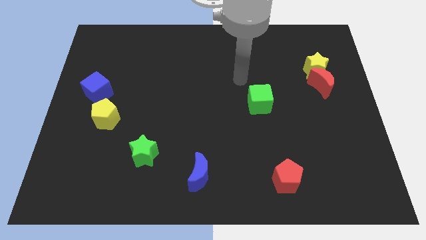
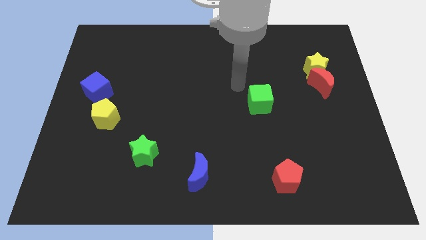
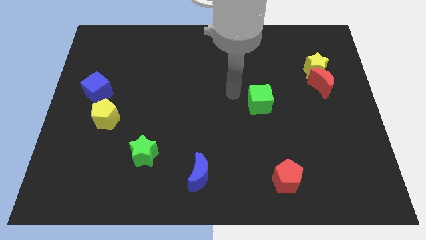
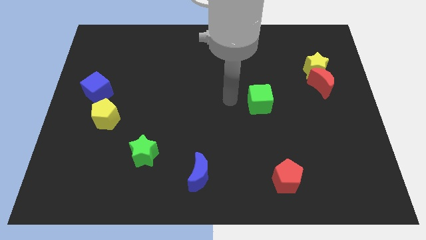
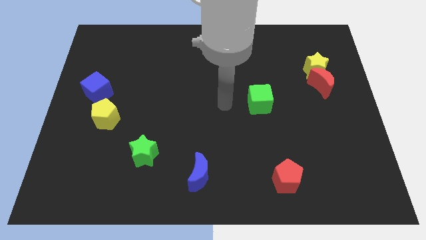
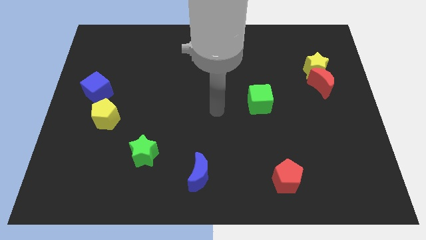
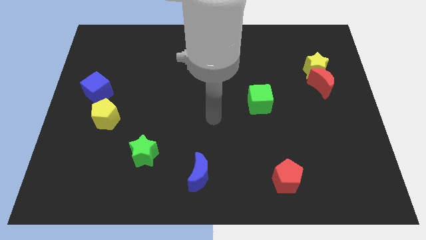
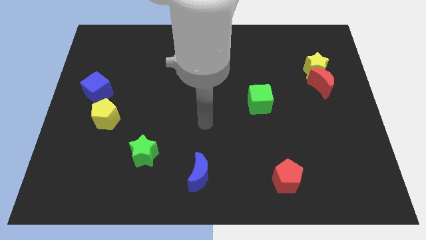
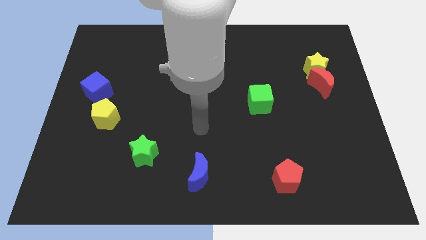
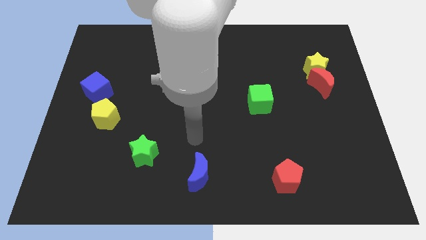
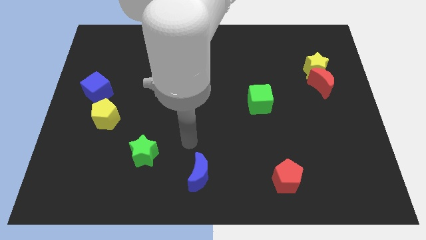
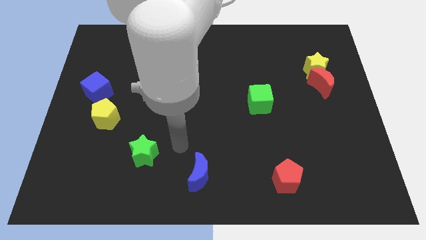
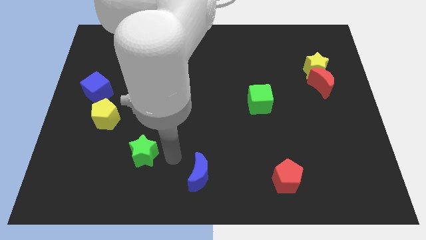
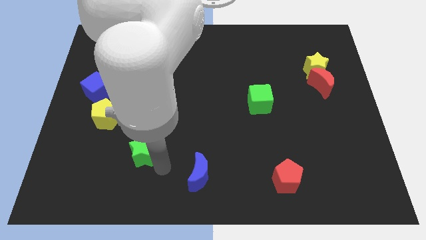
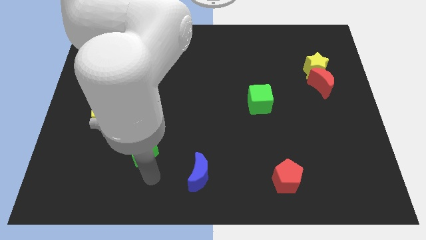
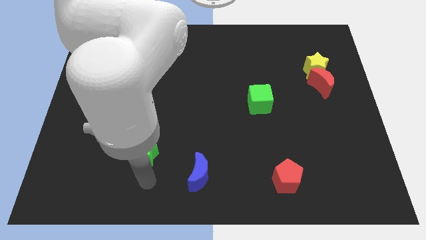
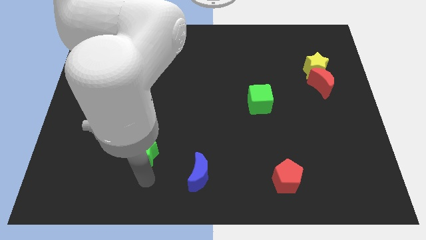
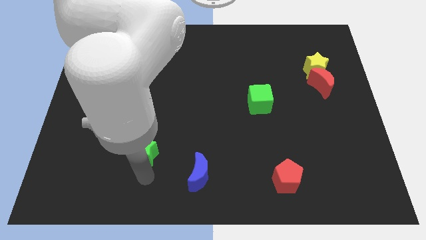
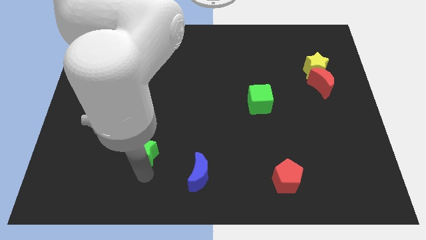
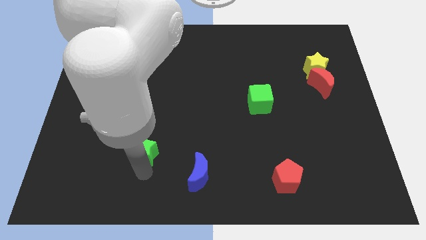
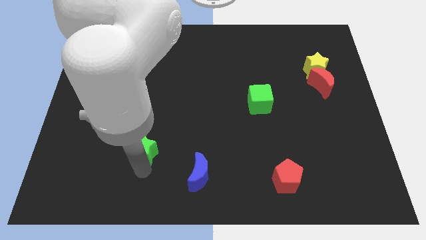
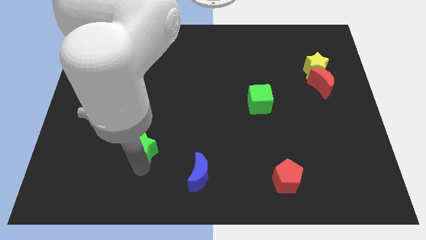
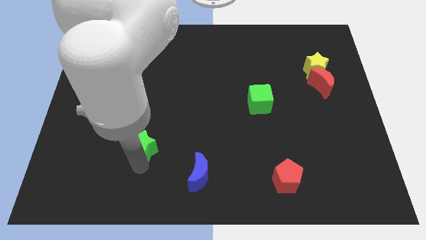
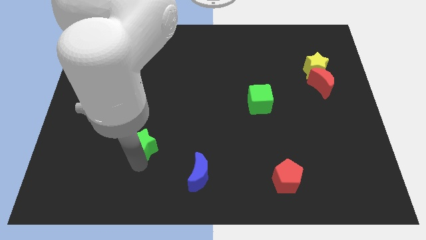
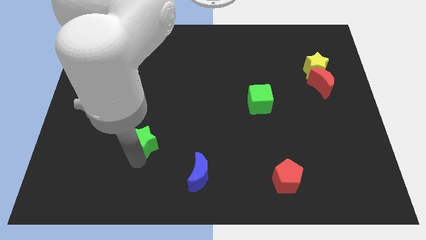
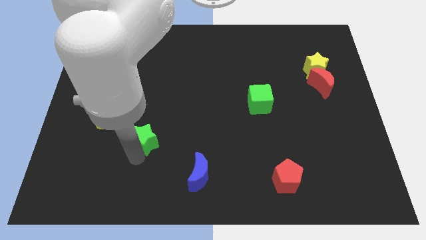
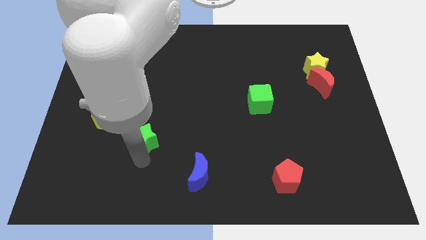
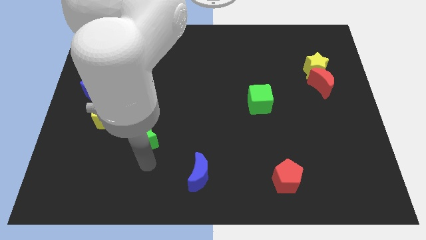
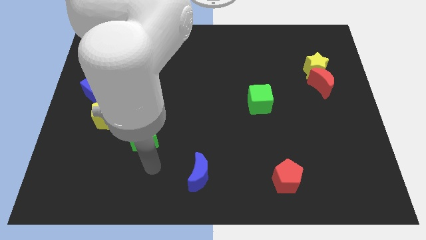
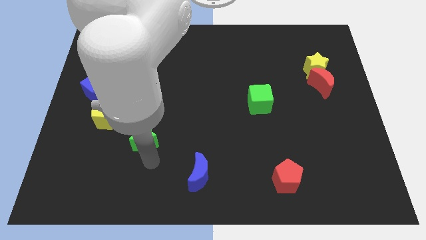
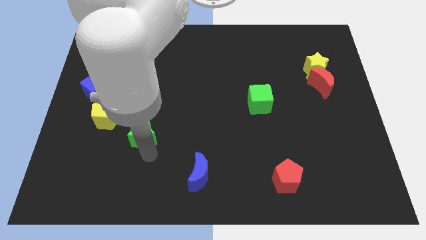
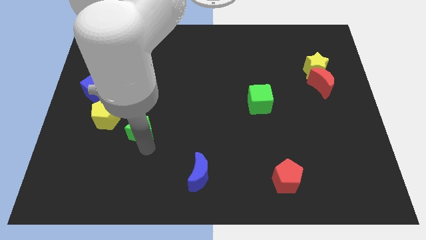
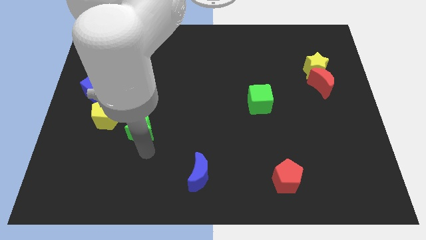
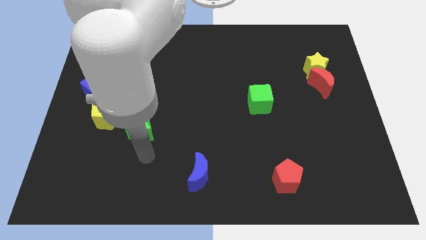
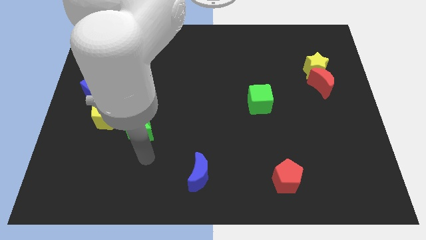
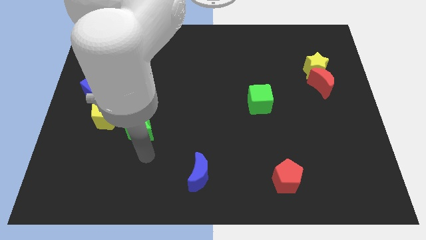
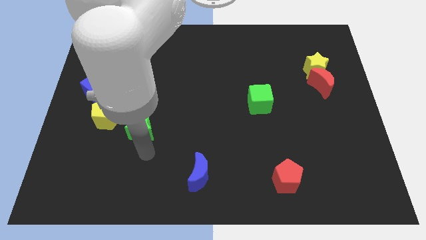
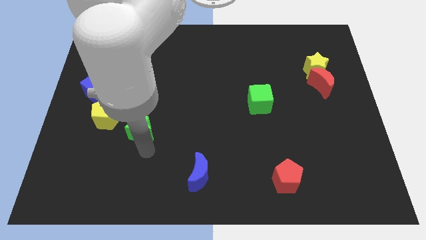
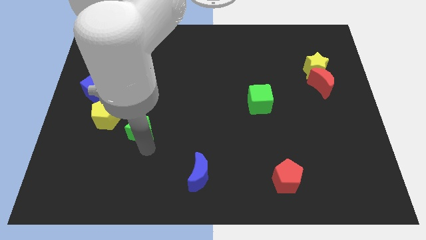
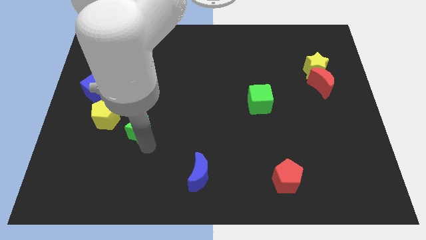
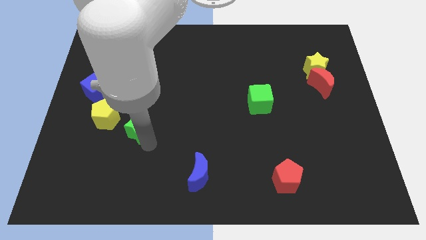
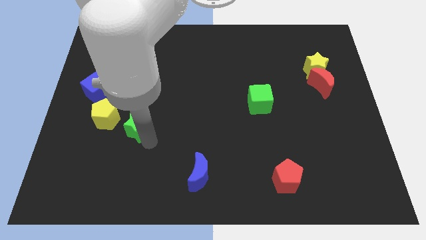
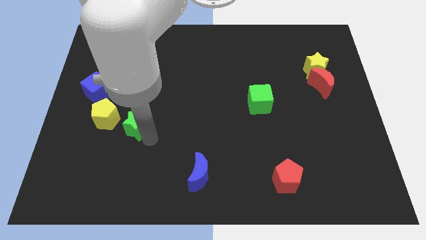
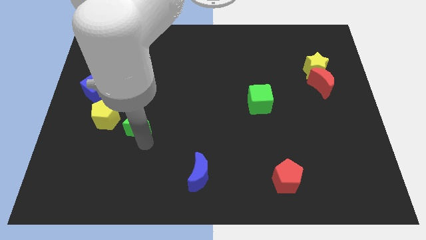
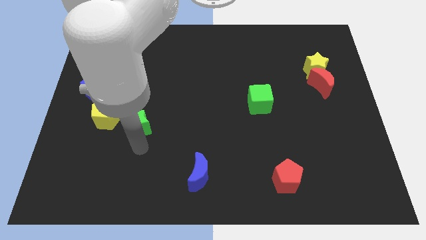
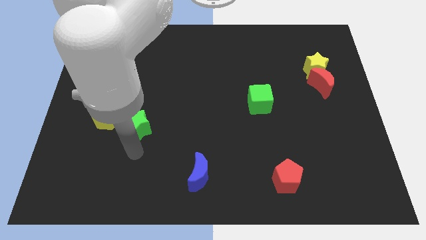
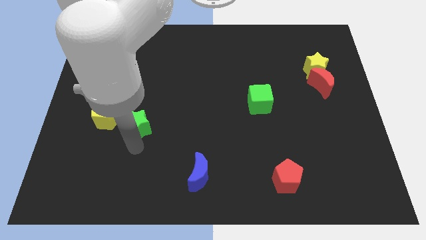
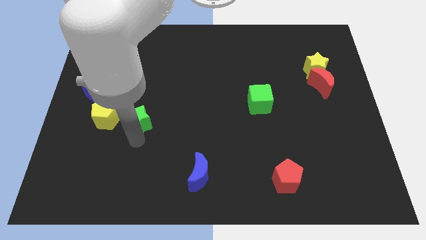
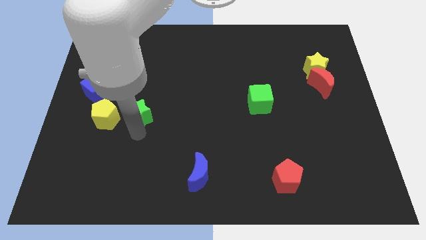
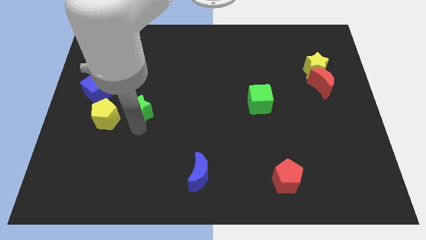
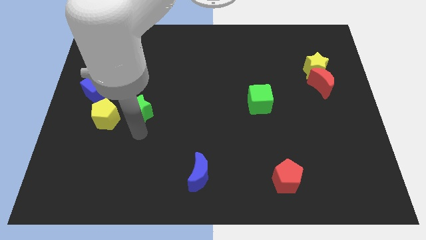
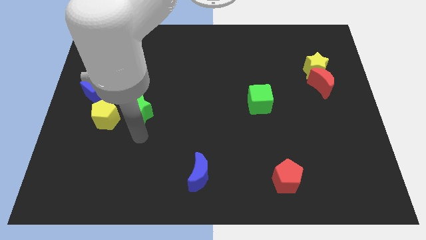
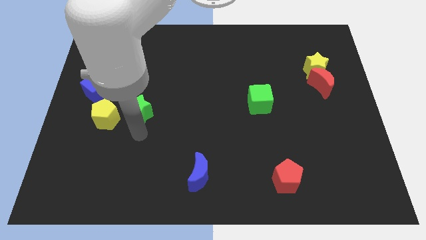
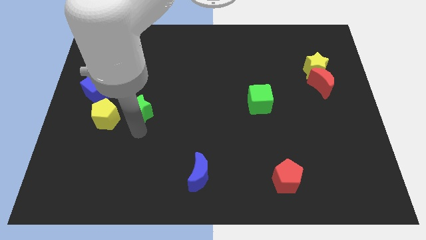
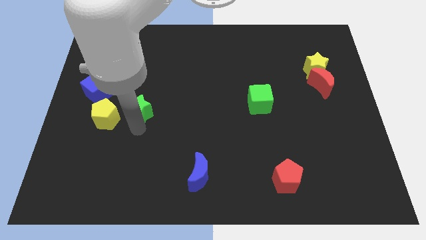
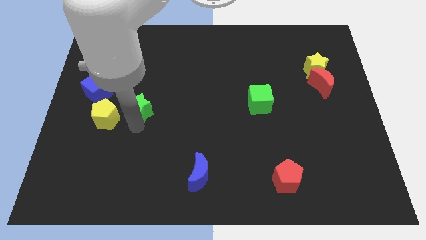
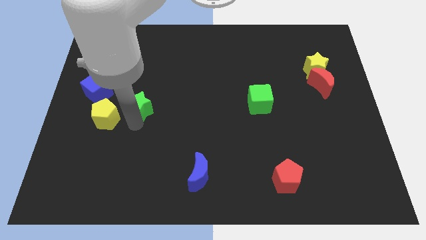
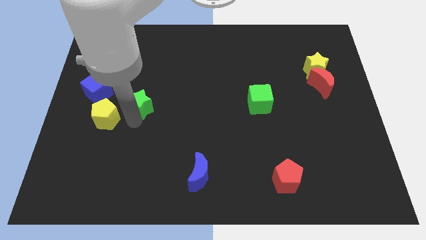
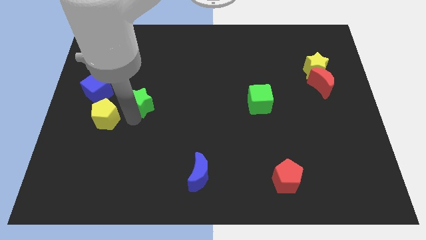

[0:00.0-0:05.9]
push the green star right of the blue cube

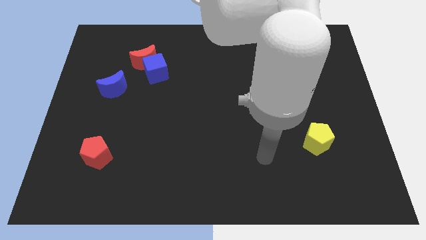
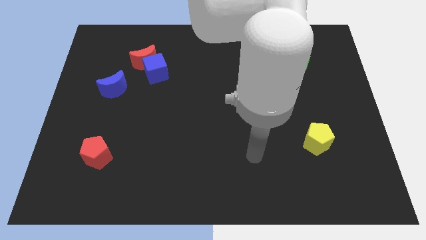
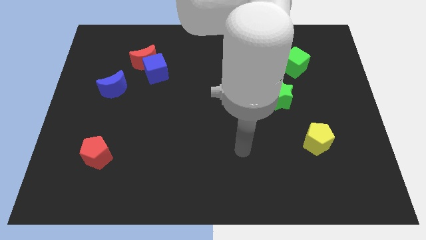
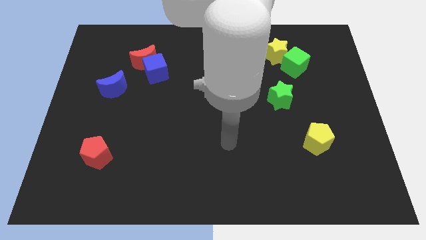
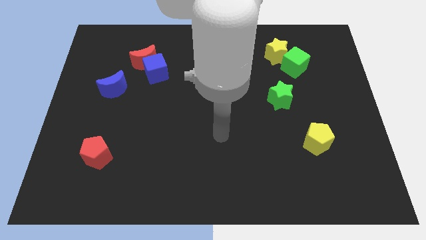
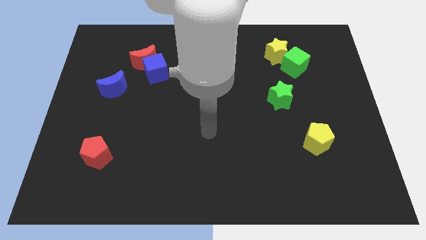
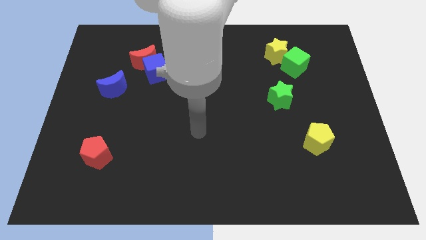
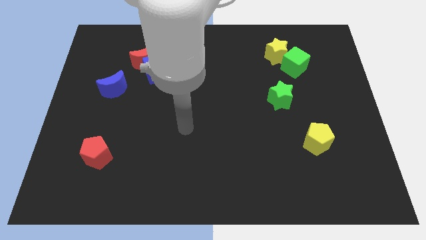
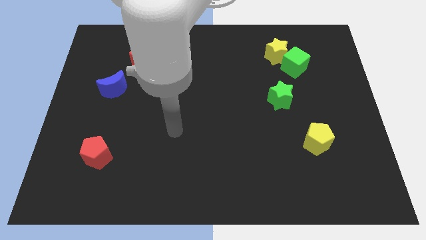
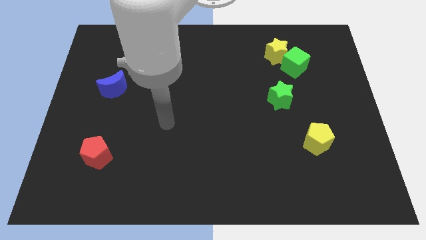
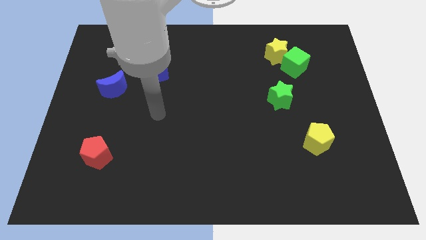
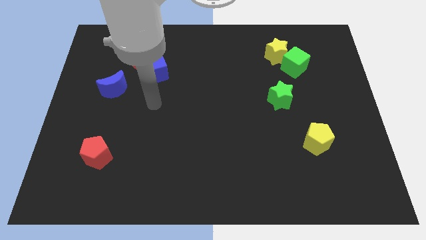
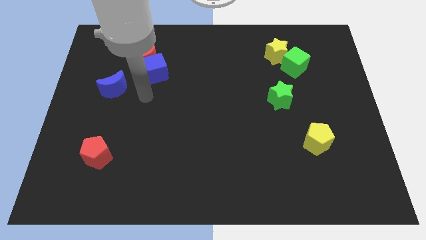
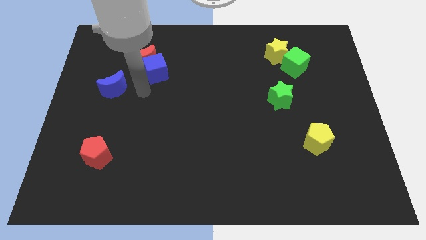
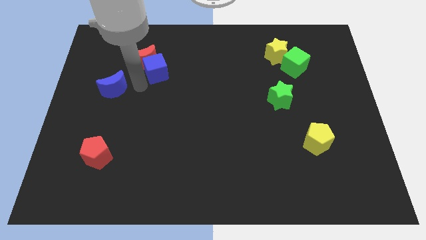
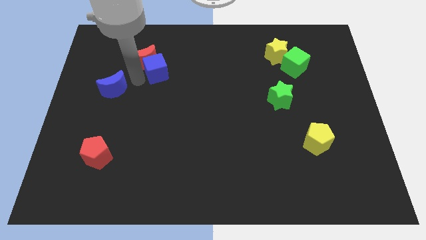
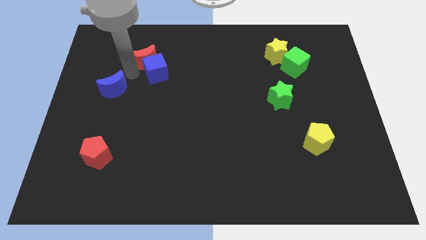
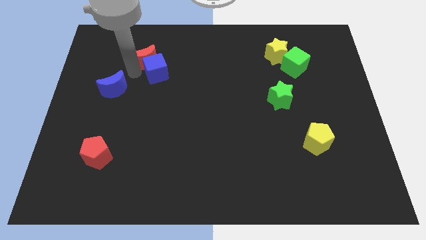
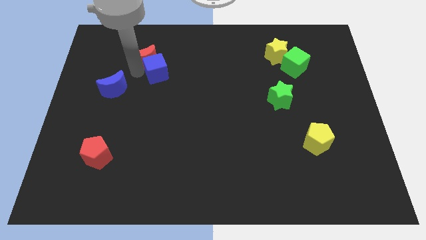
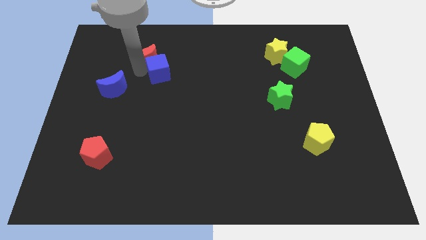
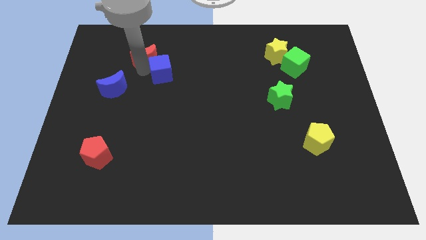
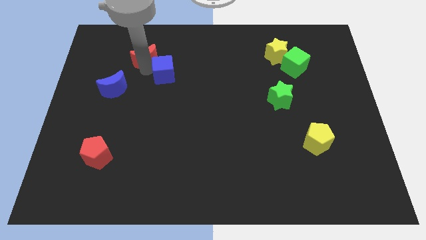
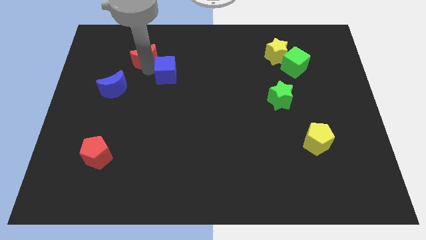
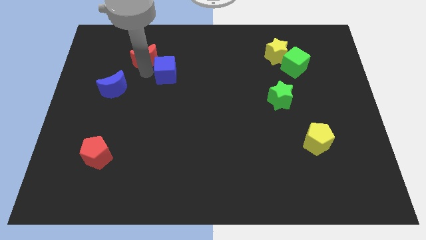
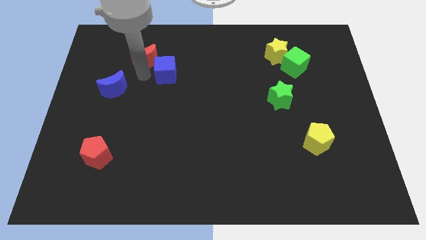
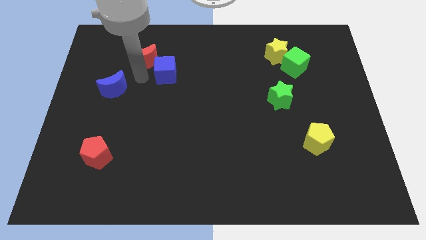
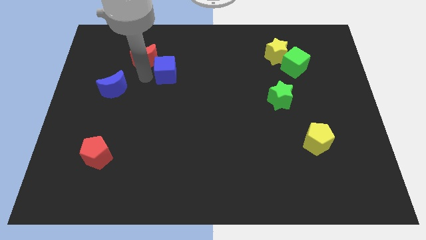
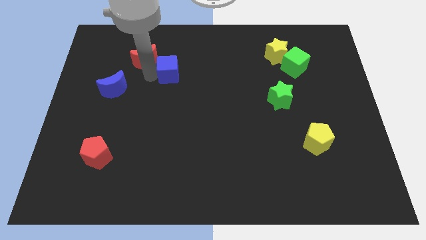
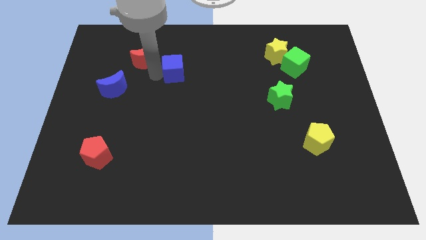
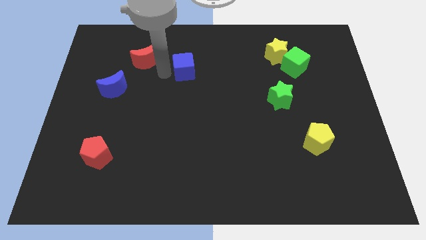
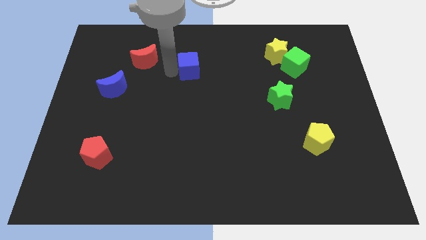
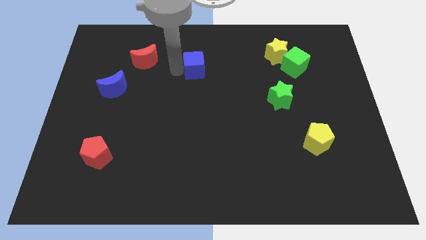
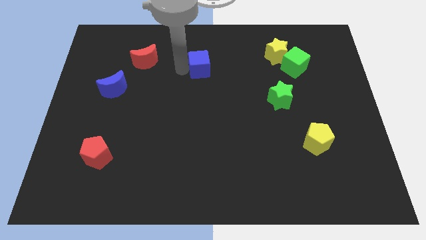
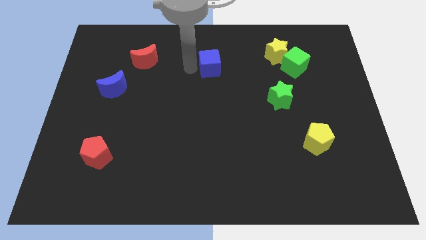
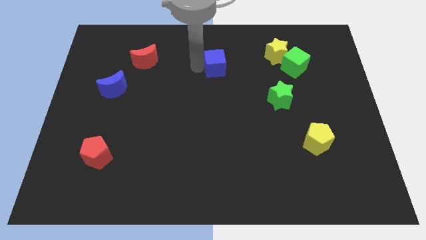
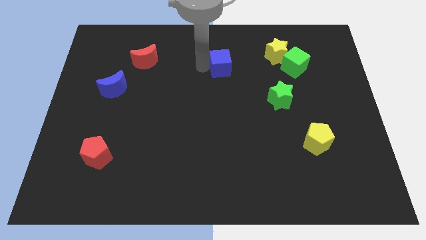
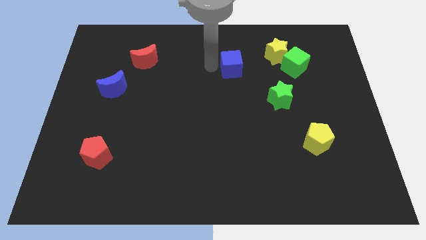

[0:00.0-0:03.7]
move the blue cube to the left of the green cube
